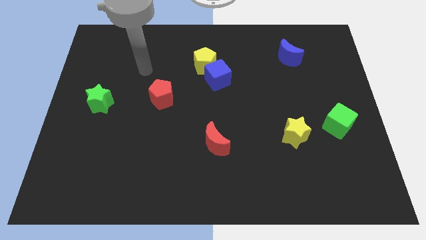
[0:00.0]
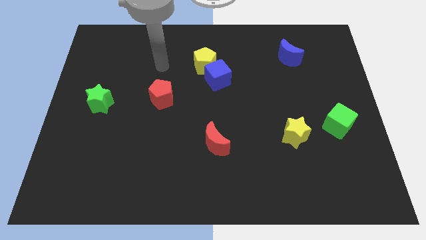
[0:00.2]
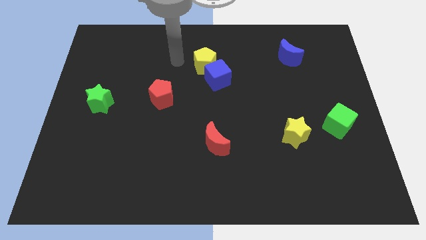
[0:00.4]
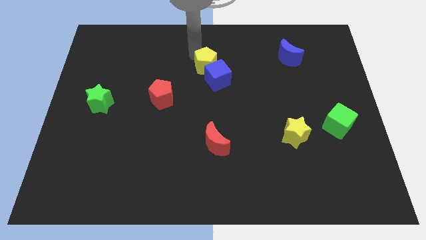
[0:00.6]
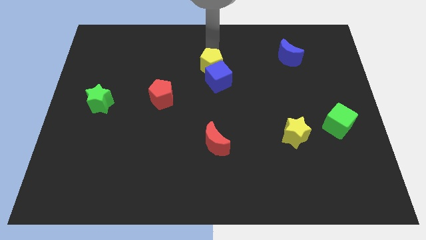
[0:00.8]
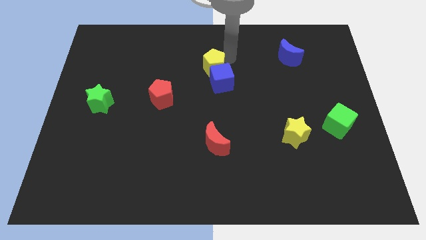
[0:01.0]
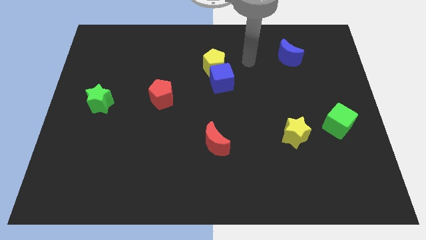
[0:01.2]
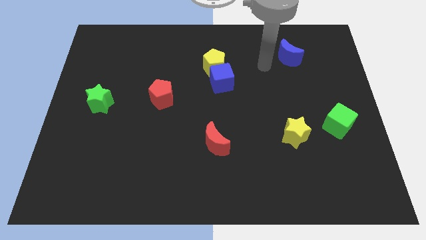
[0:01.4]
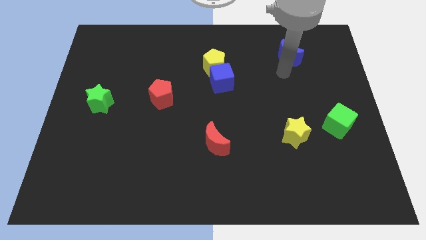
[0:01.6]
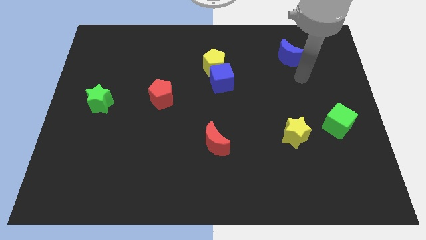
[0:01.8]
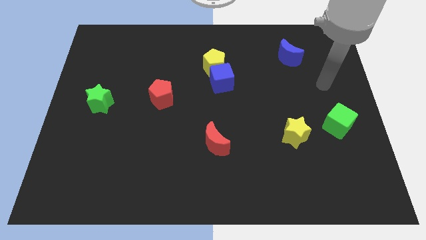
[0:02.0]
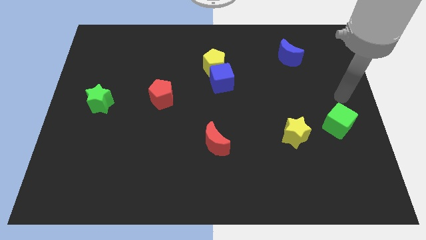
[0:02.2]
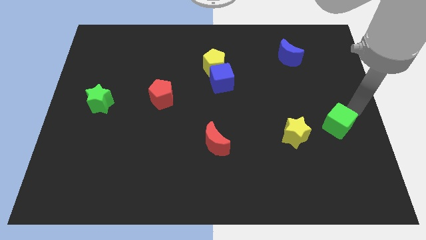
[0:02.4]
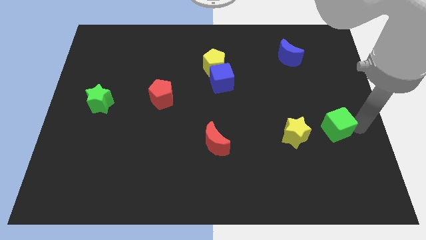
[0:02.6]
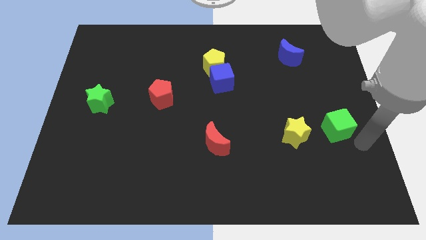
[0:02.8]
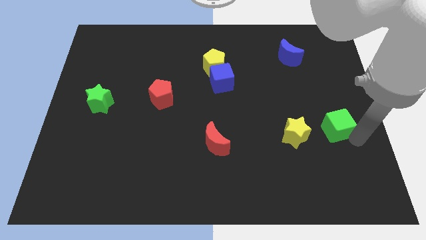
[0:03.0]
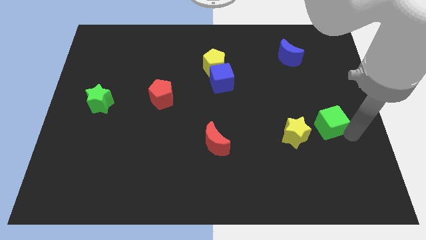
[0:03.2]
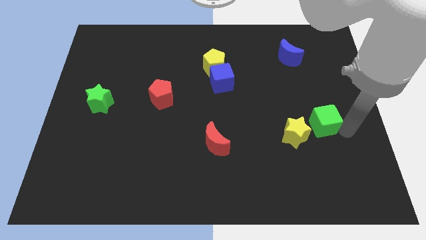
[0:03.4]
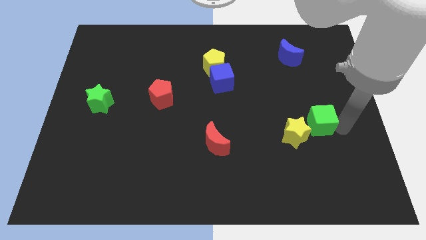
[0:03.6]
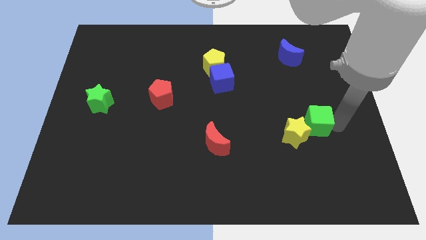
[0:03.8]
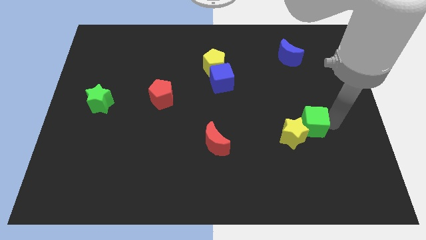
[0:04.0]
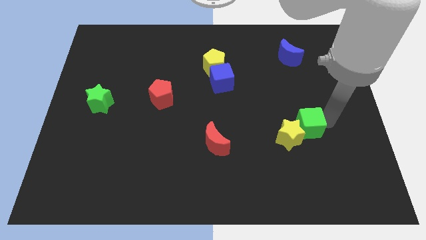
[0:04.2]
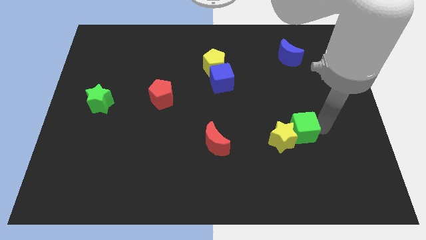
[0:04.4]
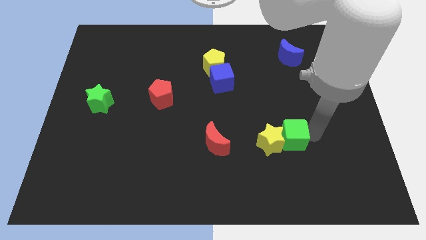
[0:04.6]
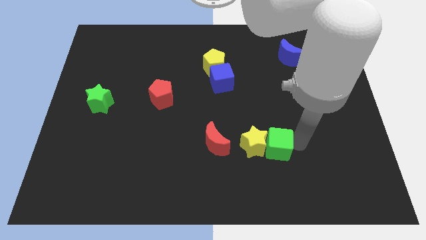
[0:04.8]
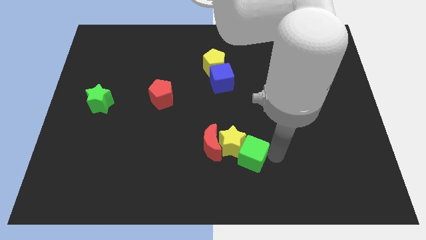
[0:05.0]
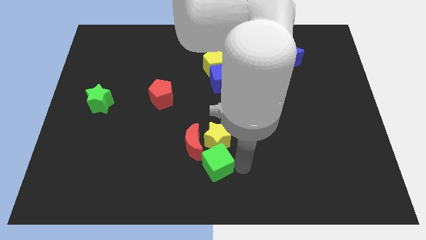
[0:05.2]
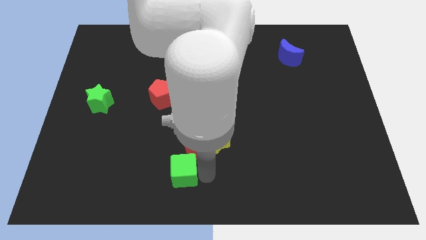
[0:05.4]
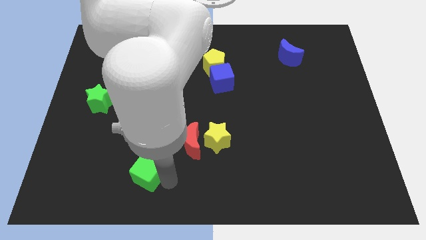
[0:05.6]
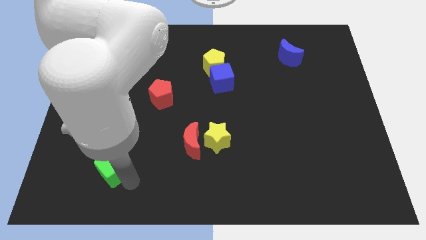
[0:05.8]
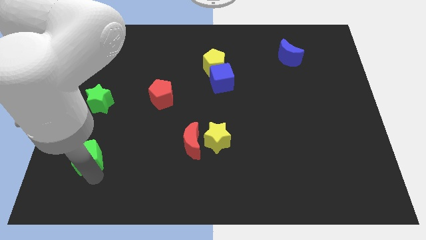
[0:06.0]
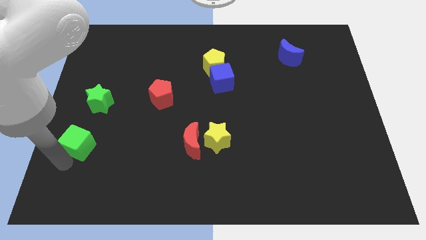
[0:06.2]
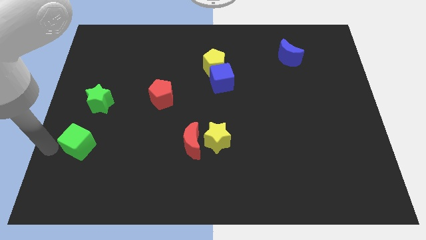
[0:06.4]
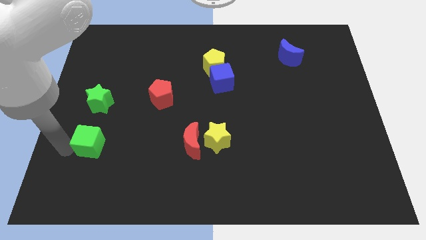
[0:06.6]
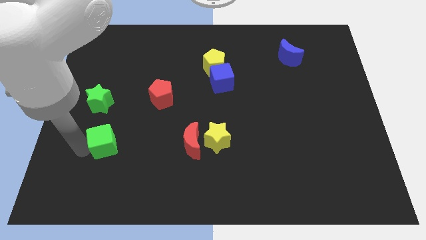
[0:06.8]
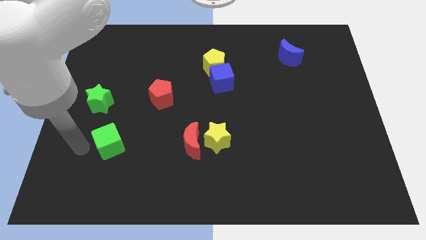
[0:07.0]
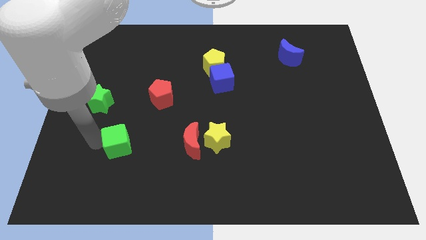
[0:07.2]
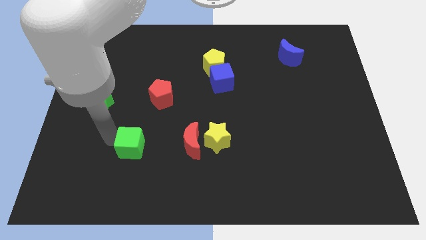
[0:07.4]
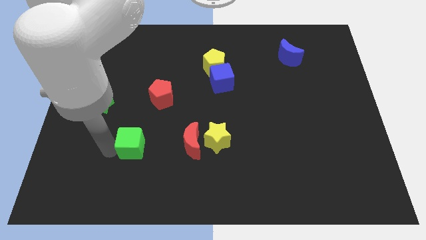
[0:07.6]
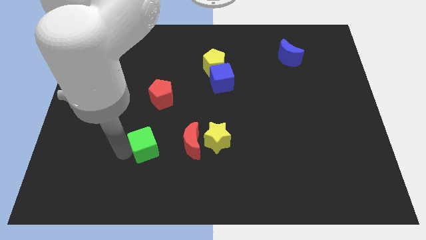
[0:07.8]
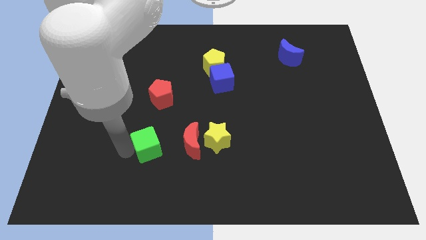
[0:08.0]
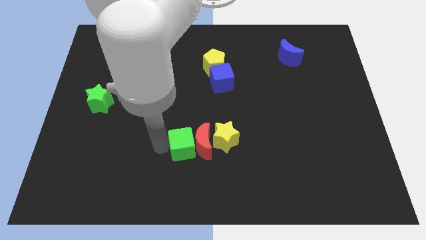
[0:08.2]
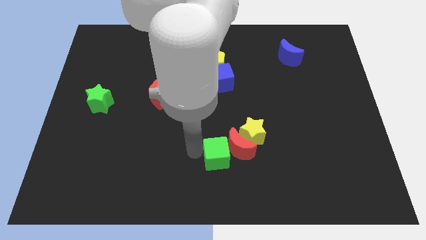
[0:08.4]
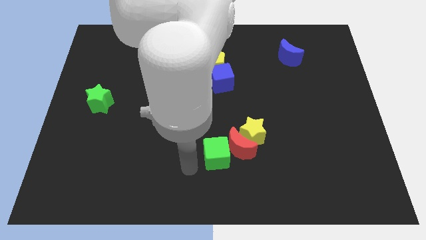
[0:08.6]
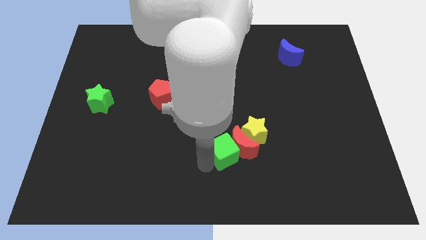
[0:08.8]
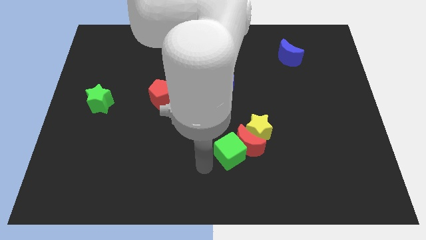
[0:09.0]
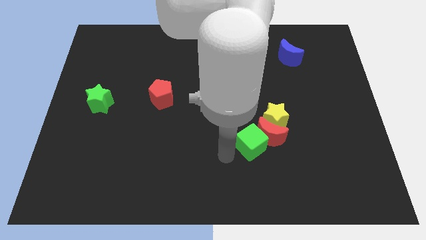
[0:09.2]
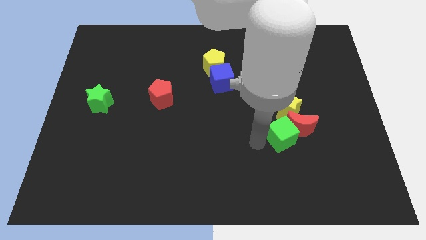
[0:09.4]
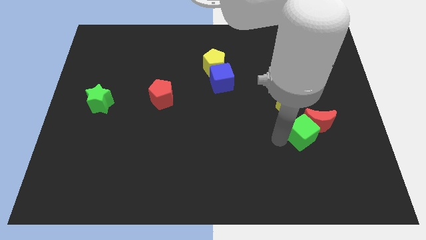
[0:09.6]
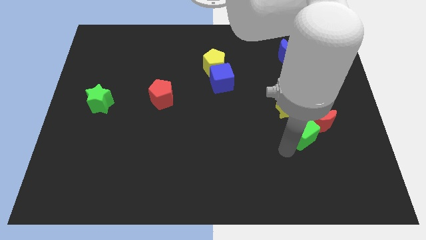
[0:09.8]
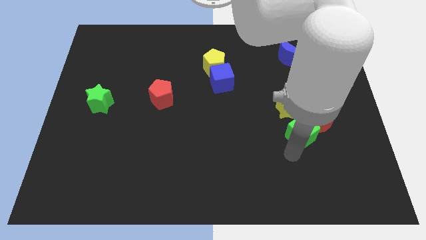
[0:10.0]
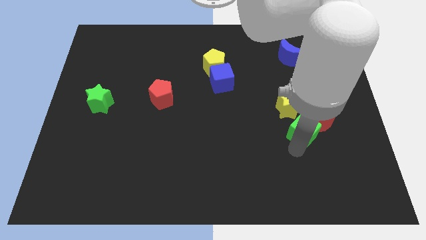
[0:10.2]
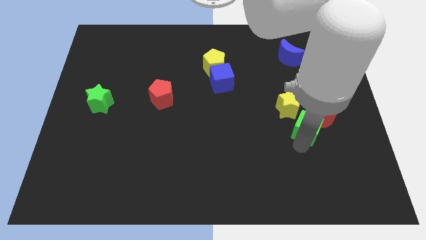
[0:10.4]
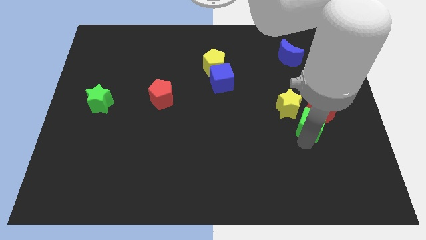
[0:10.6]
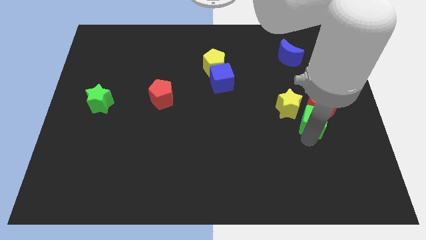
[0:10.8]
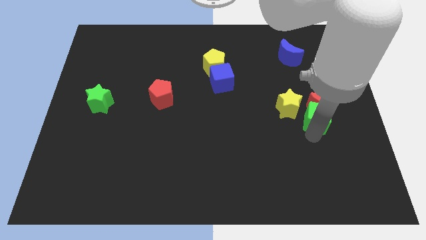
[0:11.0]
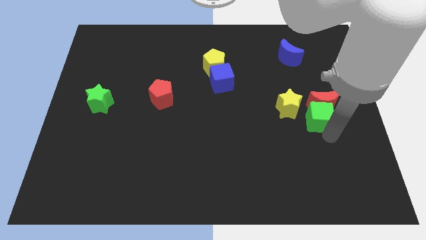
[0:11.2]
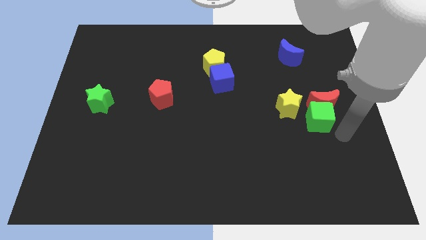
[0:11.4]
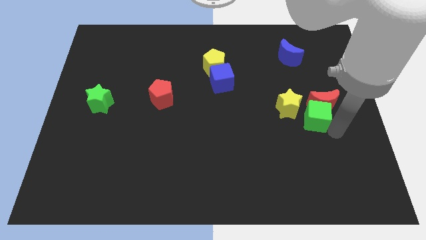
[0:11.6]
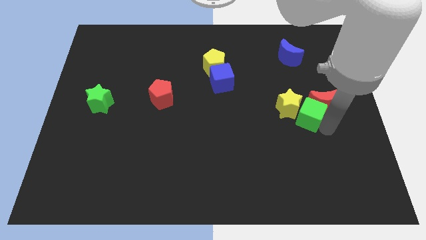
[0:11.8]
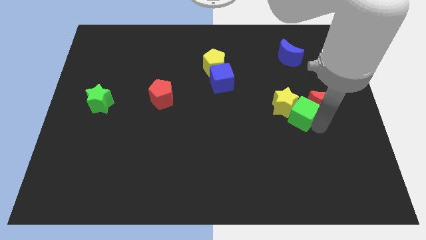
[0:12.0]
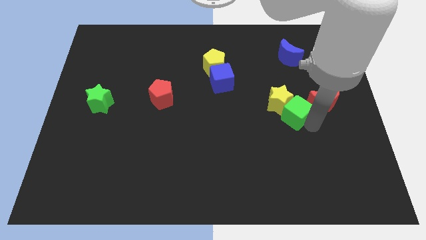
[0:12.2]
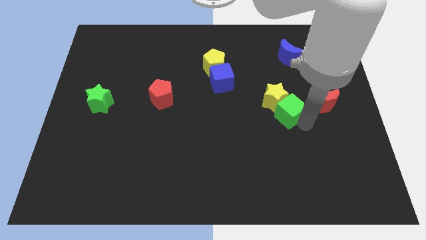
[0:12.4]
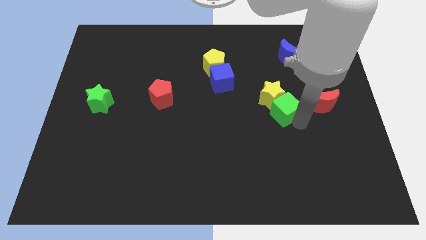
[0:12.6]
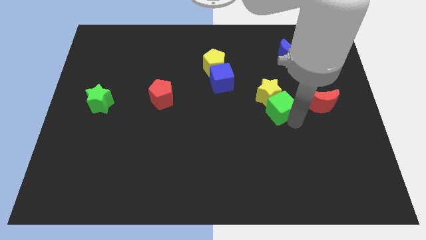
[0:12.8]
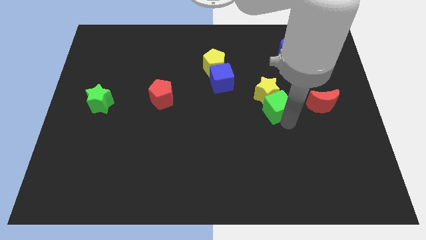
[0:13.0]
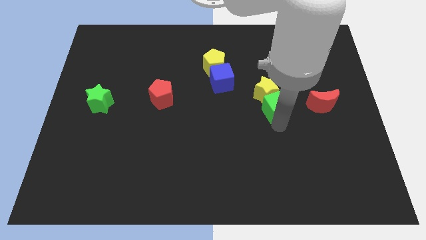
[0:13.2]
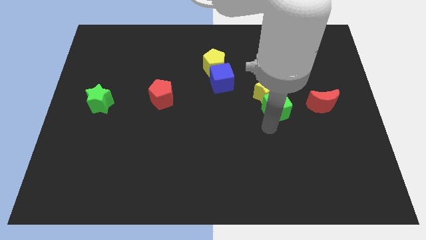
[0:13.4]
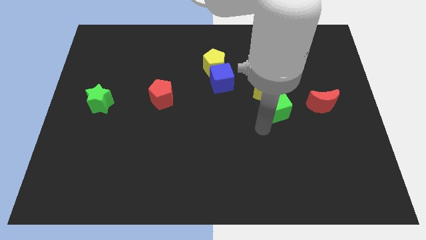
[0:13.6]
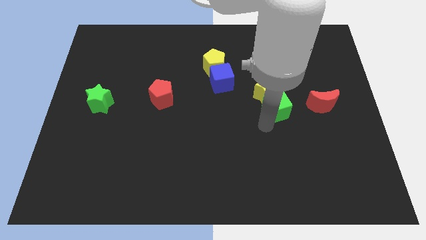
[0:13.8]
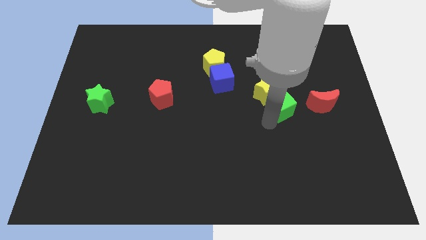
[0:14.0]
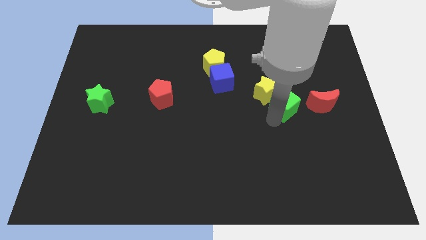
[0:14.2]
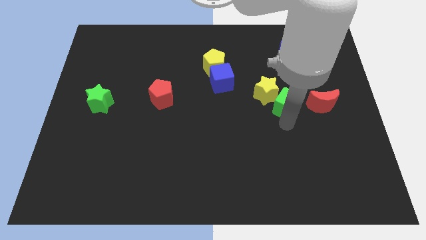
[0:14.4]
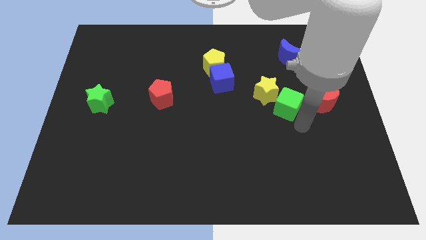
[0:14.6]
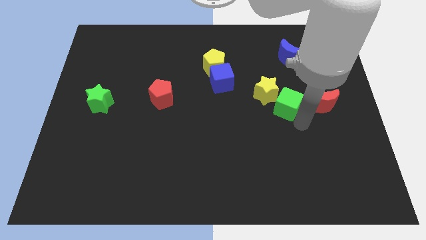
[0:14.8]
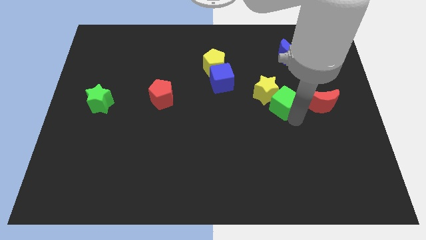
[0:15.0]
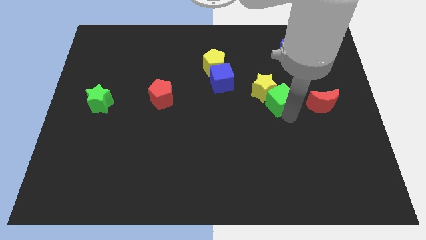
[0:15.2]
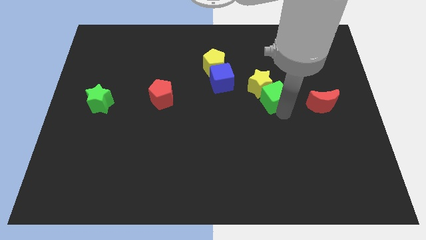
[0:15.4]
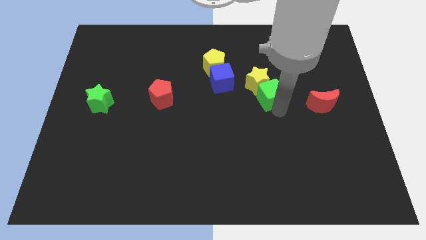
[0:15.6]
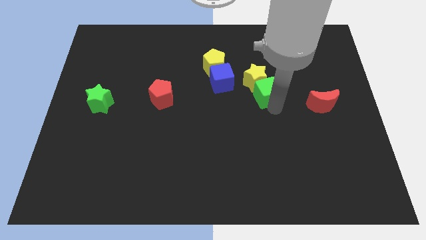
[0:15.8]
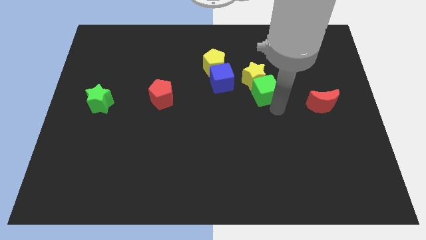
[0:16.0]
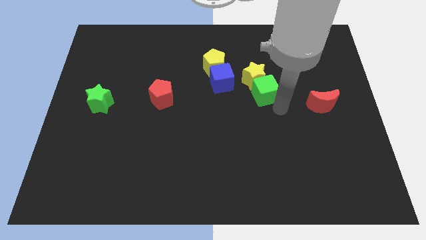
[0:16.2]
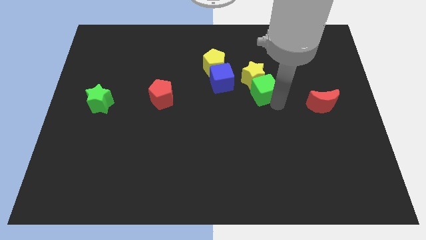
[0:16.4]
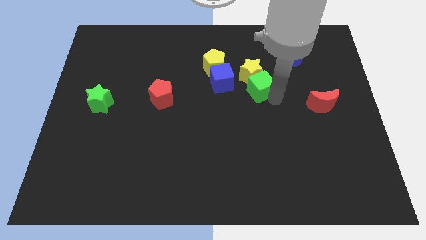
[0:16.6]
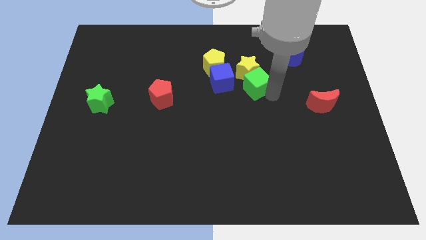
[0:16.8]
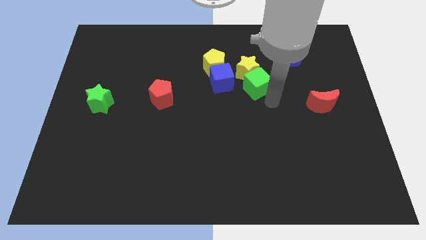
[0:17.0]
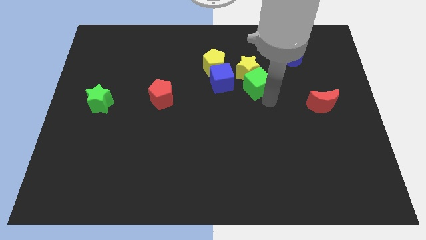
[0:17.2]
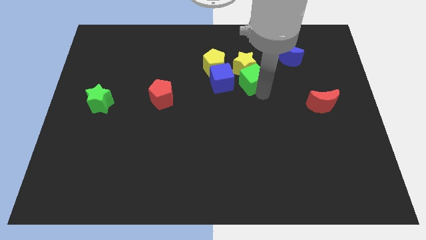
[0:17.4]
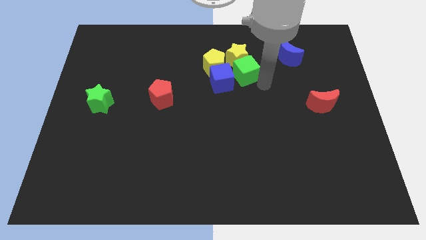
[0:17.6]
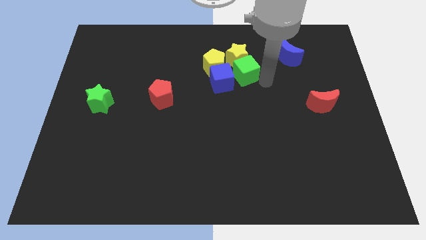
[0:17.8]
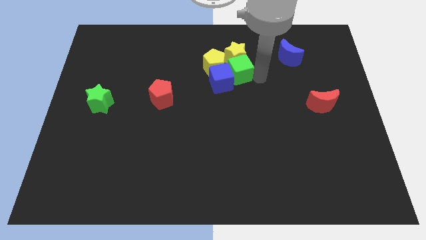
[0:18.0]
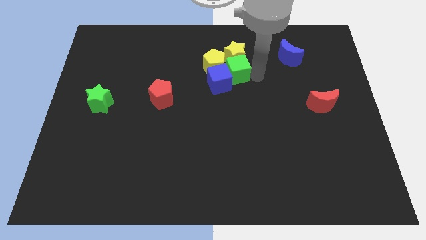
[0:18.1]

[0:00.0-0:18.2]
move the green cube next to the yellow pentagon
